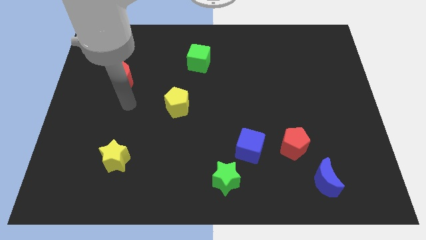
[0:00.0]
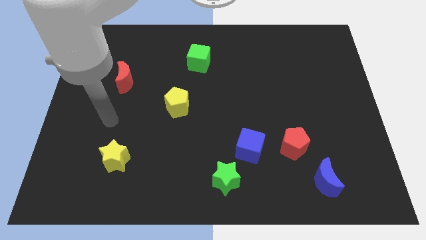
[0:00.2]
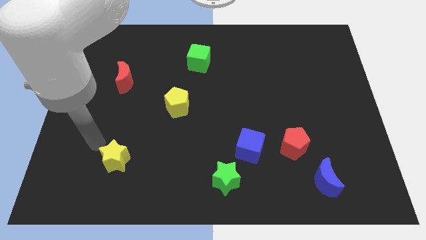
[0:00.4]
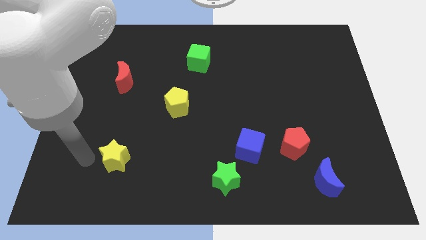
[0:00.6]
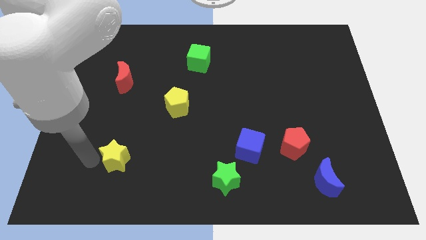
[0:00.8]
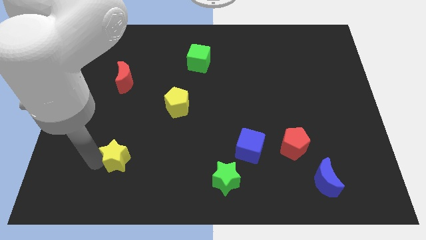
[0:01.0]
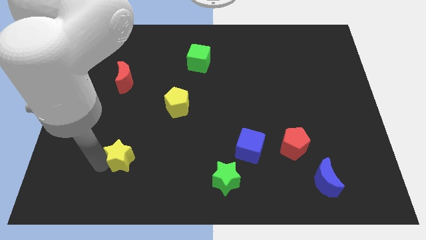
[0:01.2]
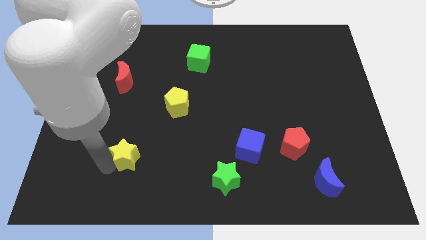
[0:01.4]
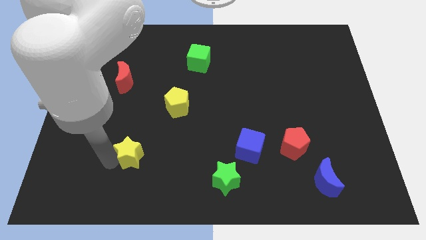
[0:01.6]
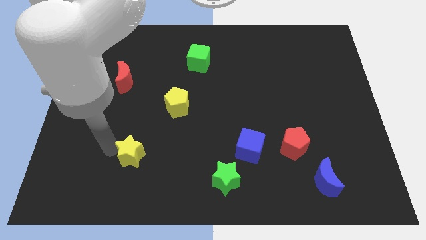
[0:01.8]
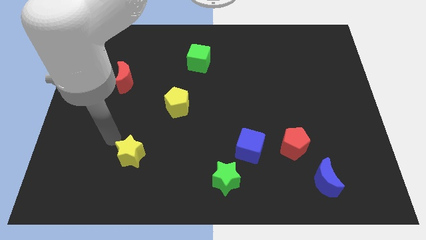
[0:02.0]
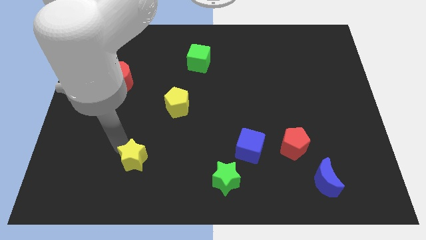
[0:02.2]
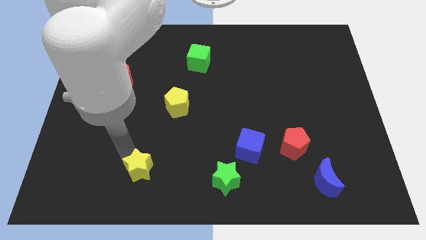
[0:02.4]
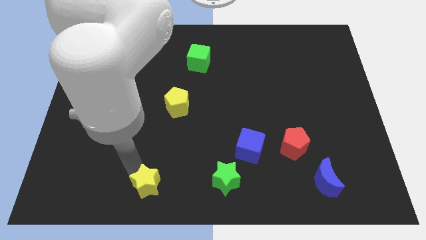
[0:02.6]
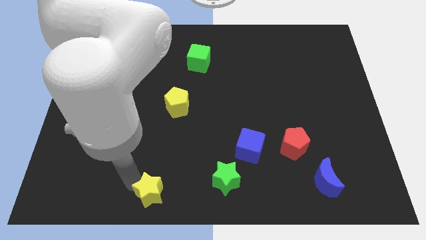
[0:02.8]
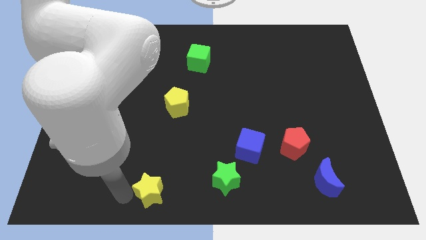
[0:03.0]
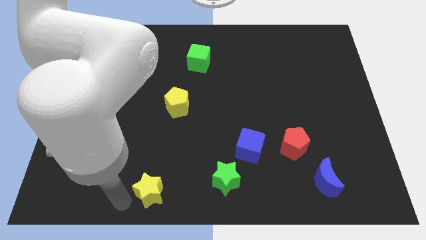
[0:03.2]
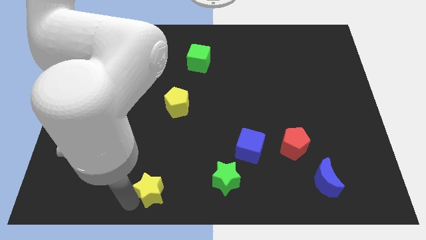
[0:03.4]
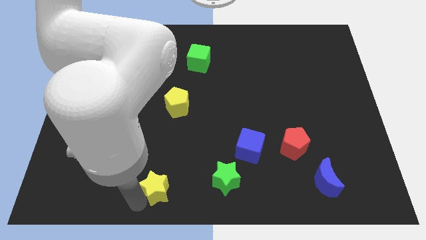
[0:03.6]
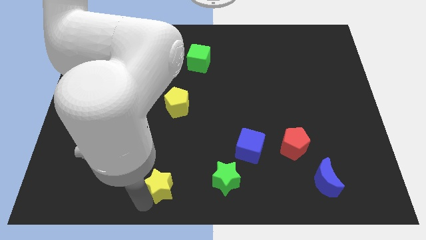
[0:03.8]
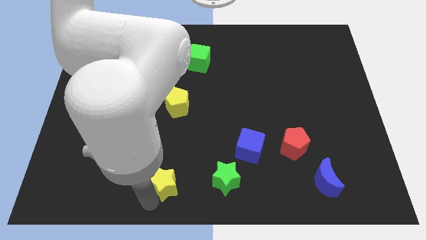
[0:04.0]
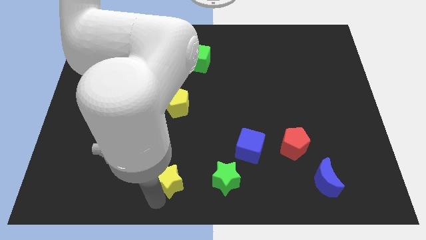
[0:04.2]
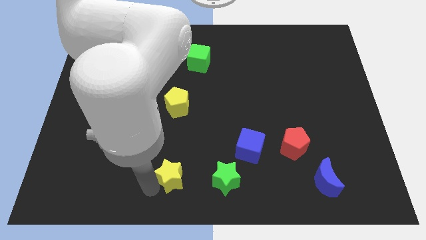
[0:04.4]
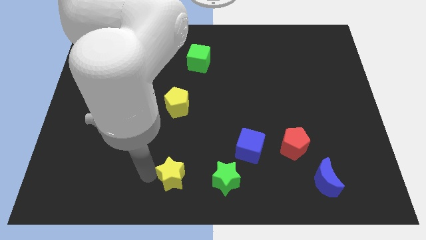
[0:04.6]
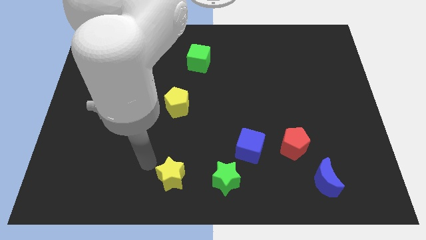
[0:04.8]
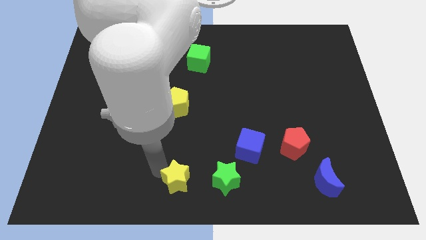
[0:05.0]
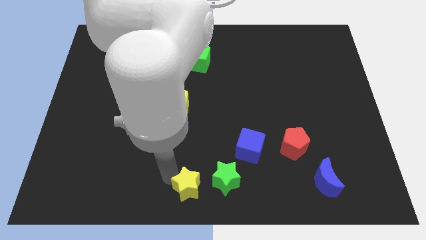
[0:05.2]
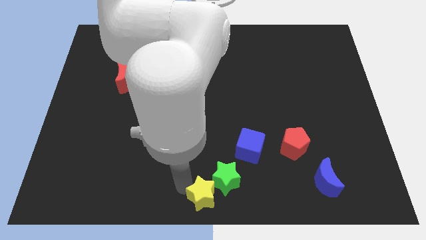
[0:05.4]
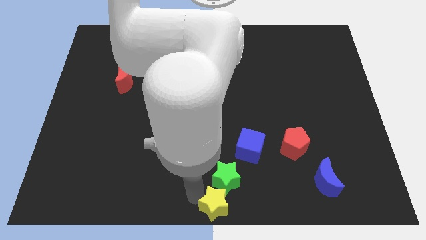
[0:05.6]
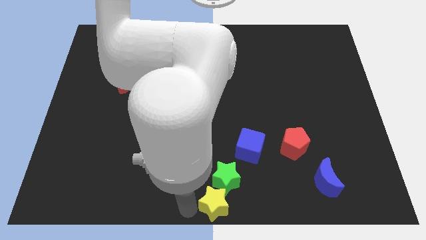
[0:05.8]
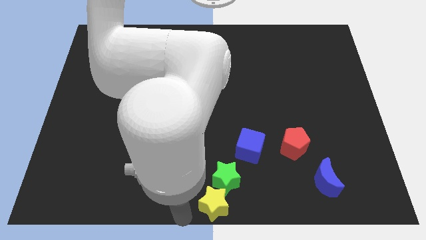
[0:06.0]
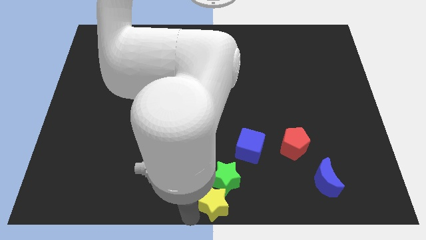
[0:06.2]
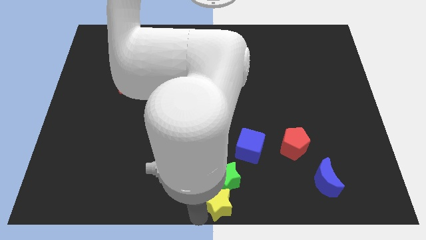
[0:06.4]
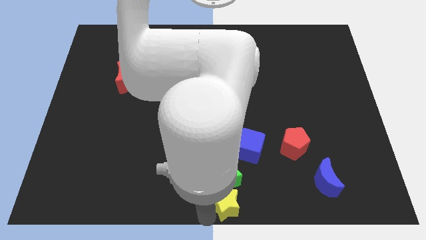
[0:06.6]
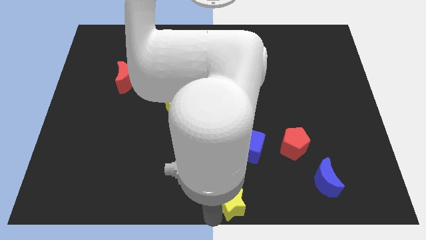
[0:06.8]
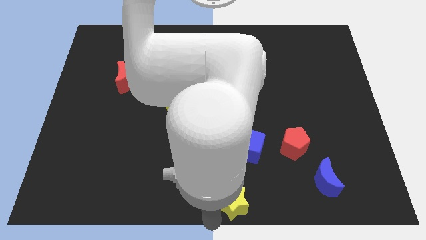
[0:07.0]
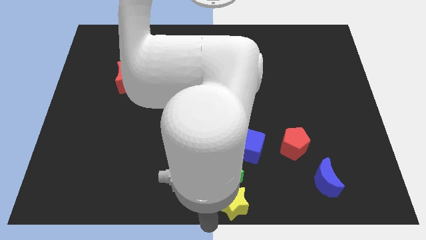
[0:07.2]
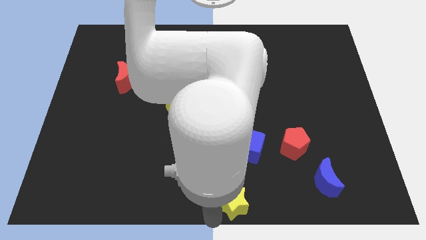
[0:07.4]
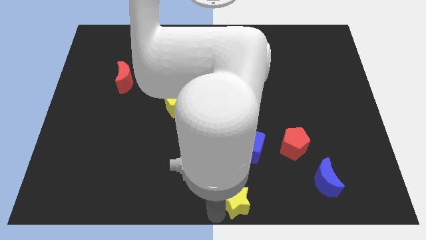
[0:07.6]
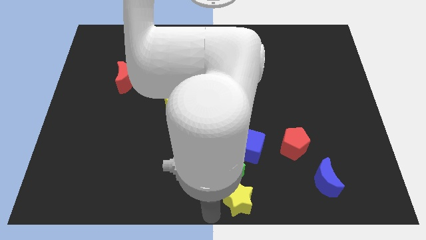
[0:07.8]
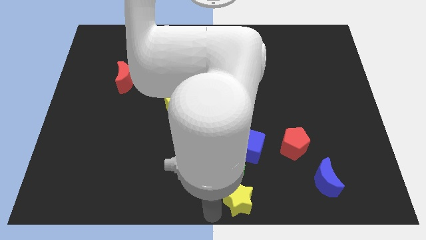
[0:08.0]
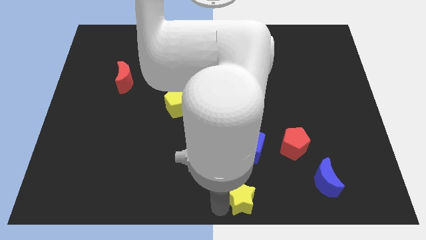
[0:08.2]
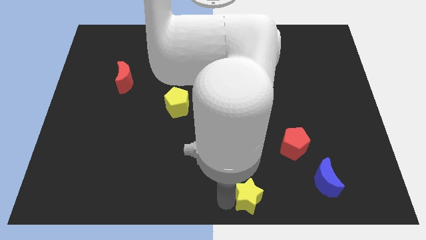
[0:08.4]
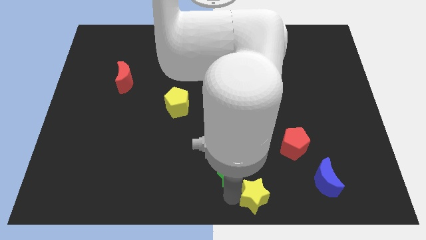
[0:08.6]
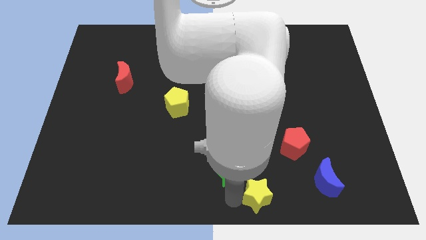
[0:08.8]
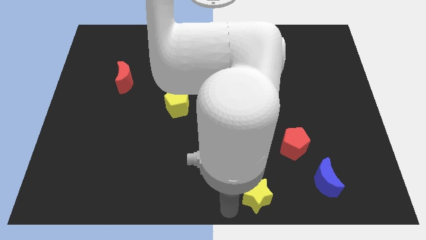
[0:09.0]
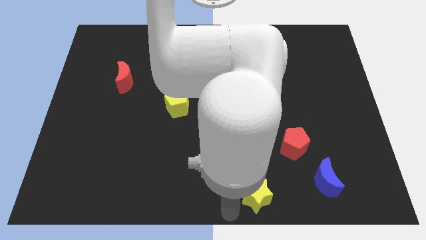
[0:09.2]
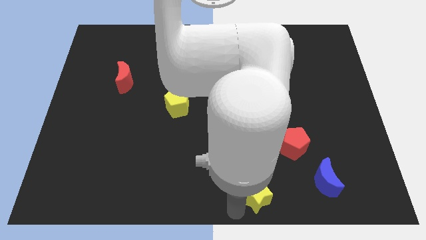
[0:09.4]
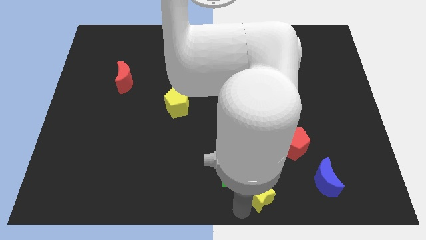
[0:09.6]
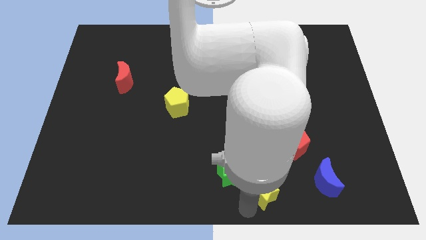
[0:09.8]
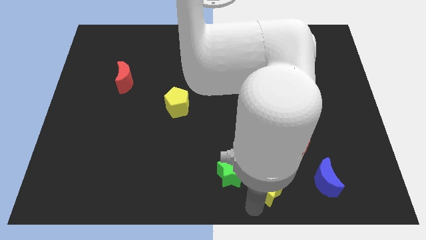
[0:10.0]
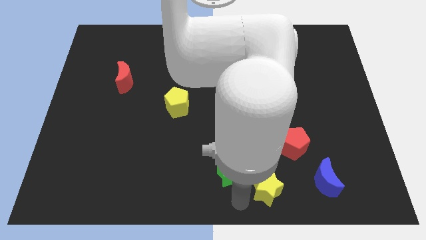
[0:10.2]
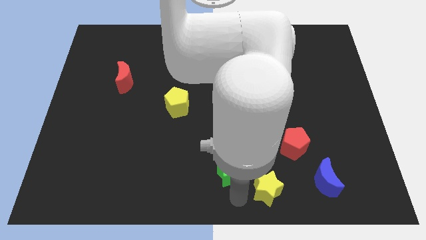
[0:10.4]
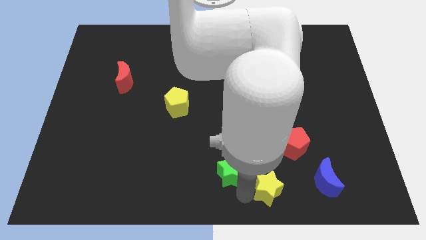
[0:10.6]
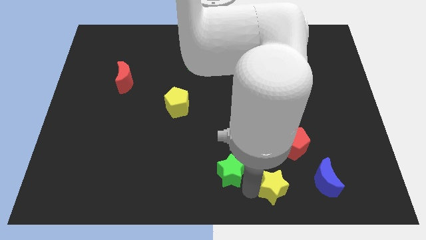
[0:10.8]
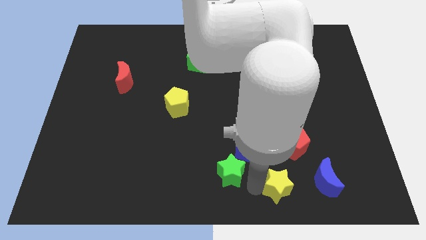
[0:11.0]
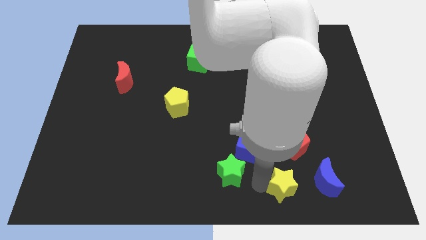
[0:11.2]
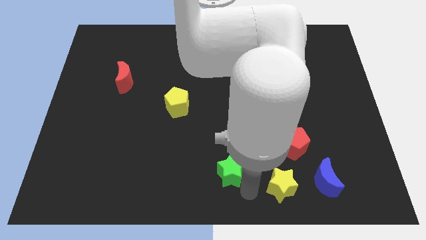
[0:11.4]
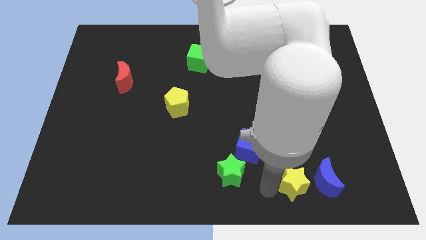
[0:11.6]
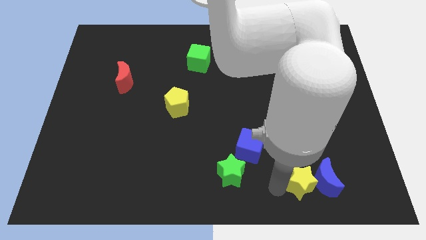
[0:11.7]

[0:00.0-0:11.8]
move the yellow star close to the blue moon

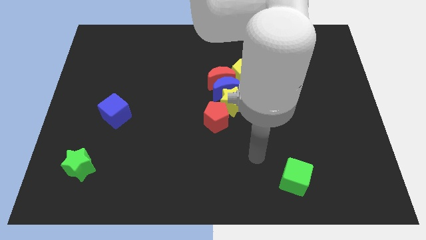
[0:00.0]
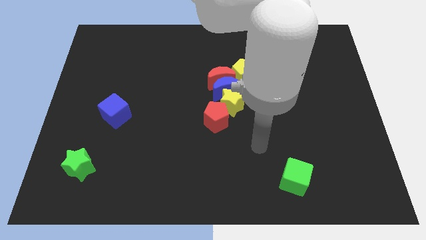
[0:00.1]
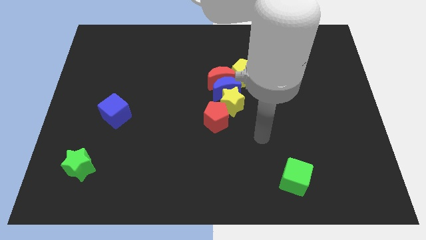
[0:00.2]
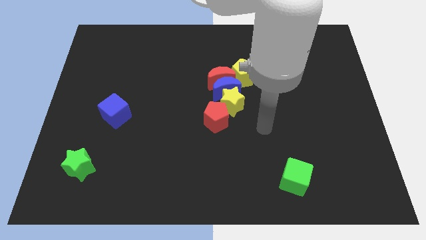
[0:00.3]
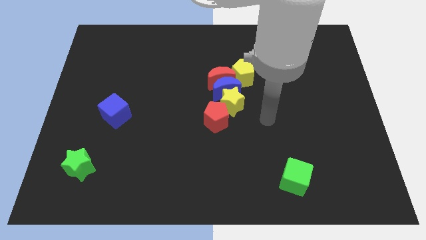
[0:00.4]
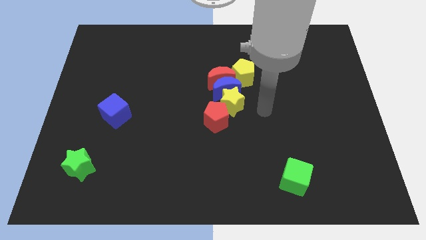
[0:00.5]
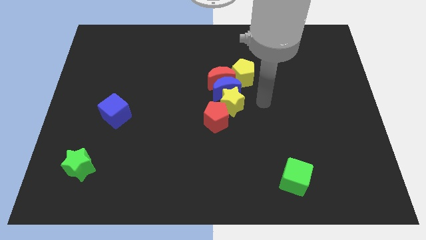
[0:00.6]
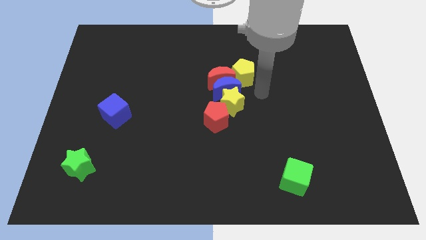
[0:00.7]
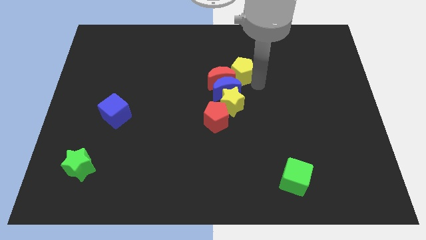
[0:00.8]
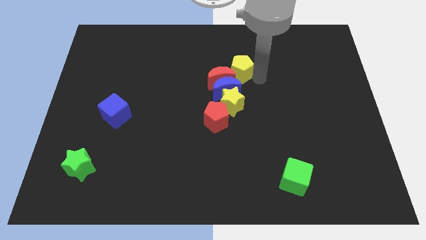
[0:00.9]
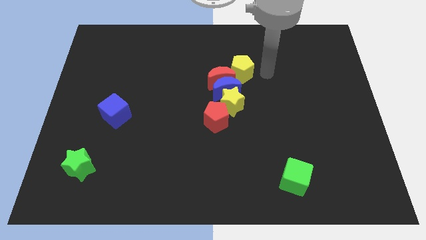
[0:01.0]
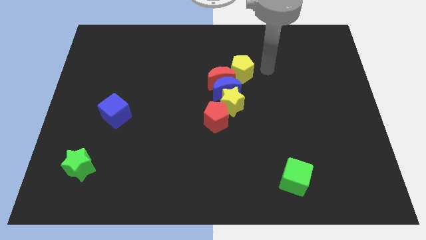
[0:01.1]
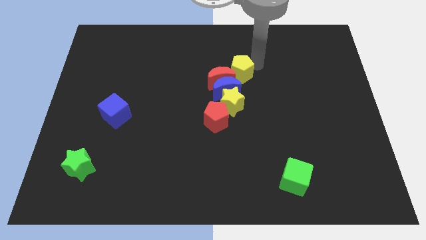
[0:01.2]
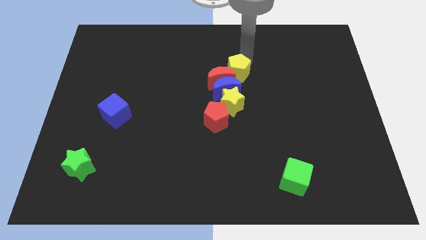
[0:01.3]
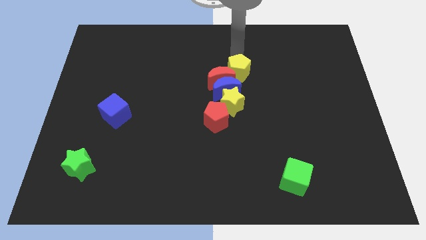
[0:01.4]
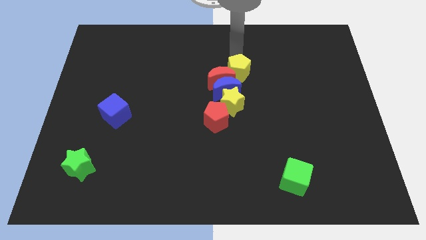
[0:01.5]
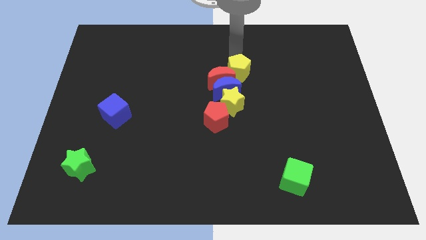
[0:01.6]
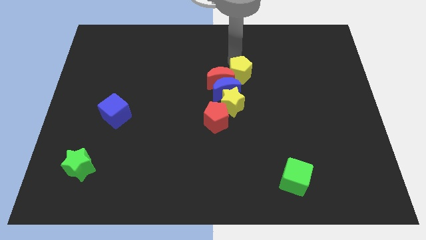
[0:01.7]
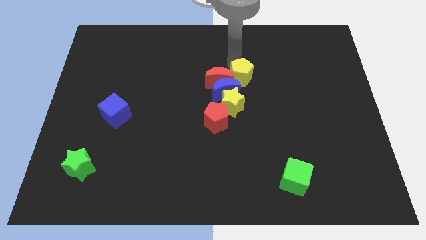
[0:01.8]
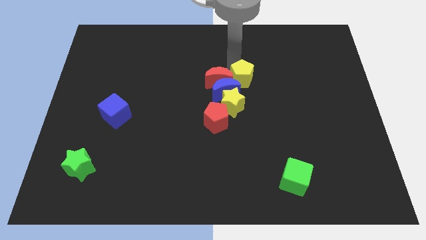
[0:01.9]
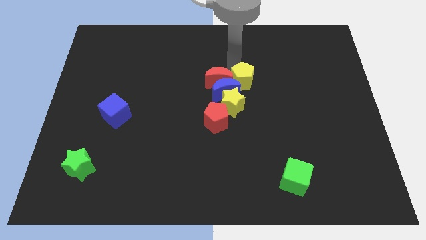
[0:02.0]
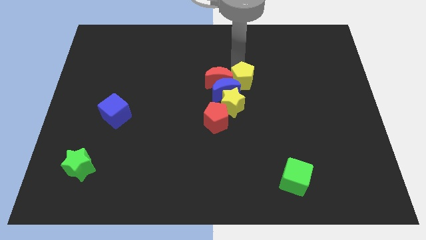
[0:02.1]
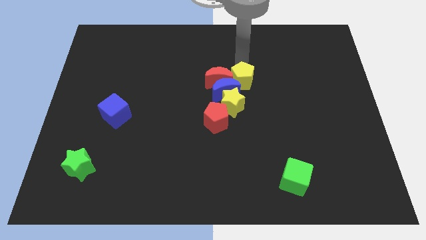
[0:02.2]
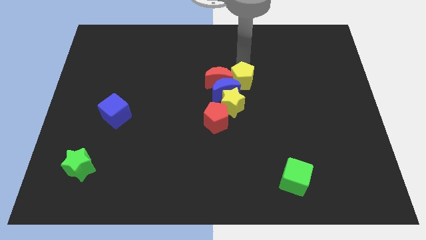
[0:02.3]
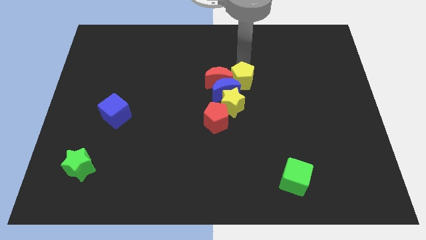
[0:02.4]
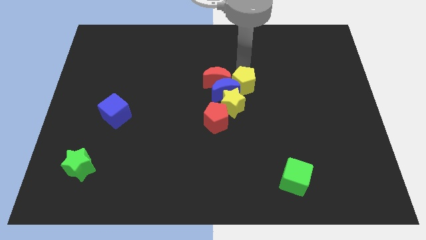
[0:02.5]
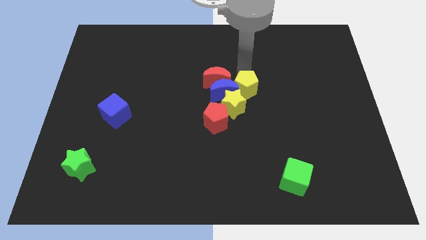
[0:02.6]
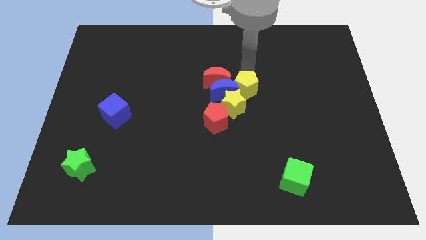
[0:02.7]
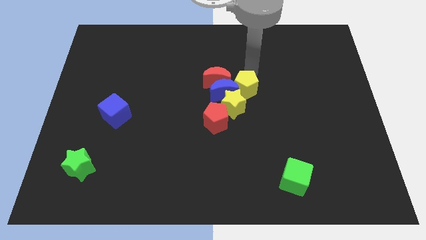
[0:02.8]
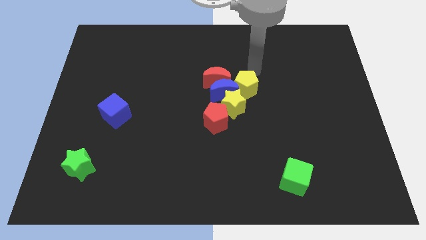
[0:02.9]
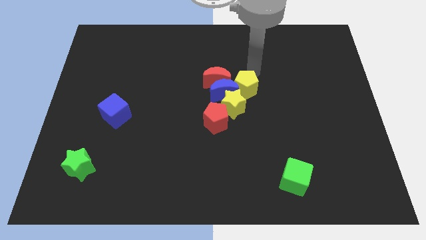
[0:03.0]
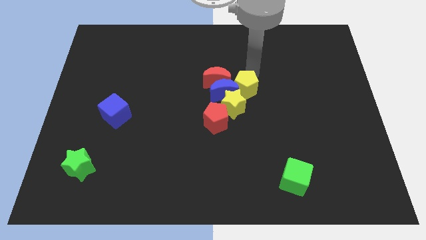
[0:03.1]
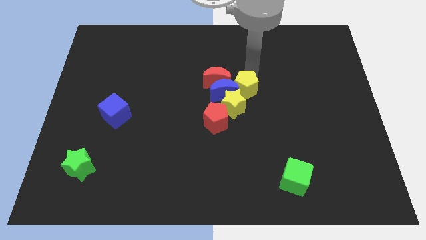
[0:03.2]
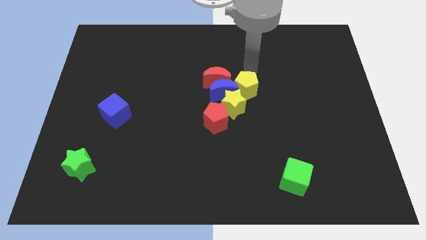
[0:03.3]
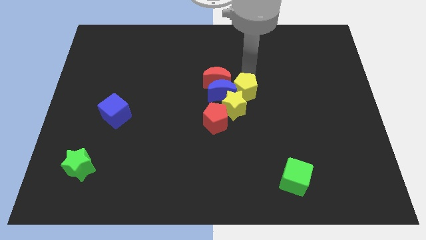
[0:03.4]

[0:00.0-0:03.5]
slide the yellow pentagon next to the yellow star
